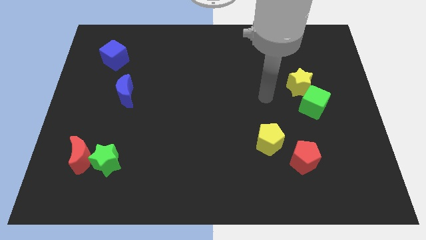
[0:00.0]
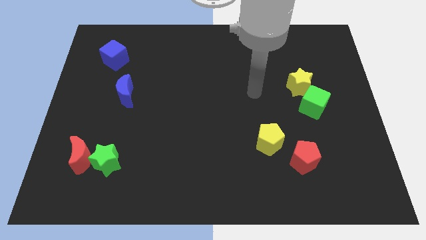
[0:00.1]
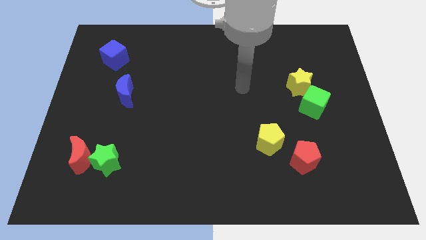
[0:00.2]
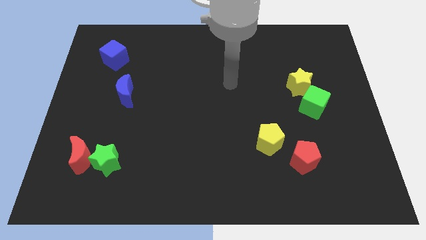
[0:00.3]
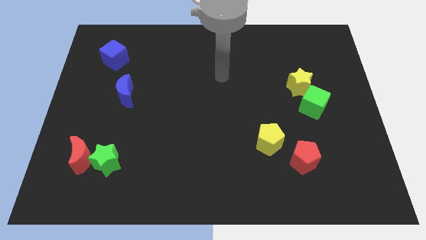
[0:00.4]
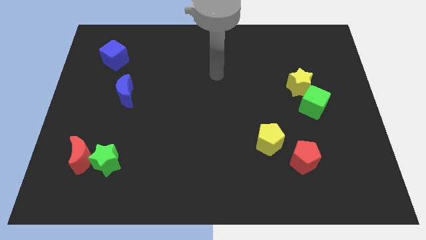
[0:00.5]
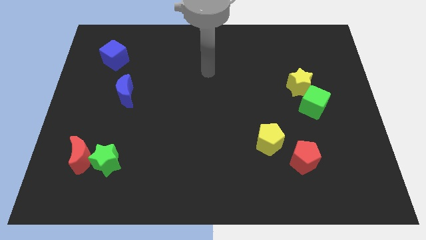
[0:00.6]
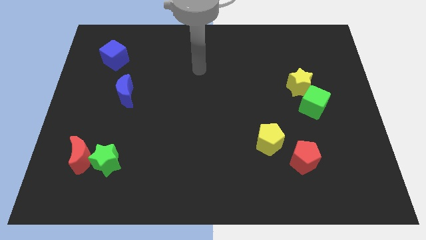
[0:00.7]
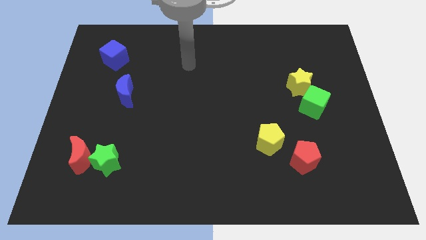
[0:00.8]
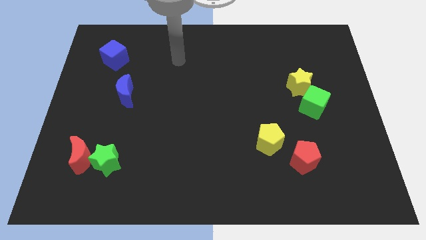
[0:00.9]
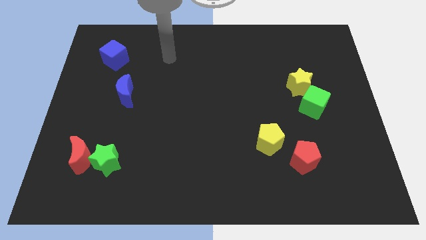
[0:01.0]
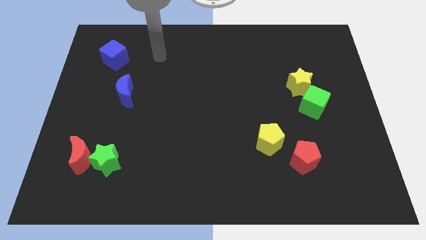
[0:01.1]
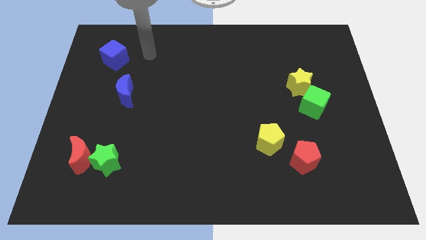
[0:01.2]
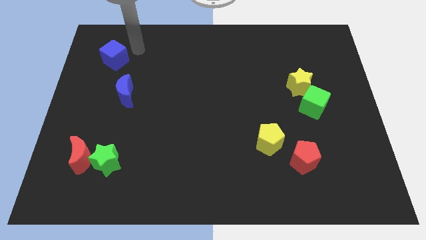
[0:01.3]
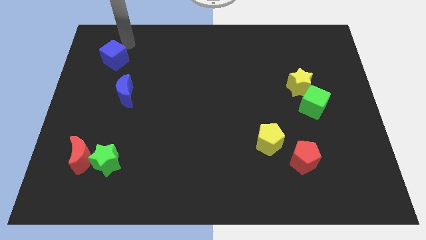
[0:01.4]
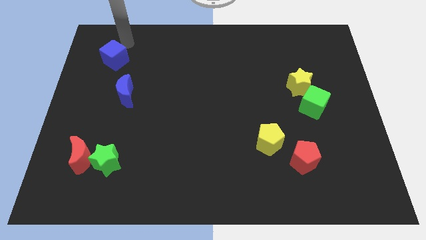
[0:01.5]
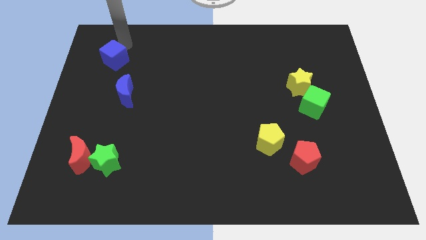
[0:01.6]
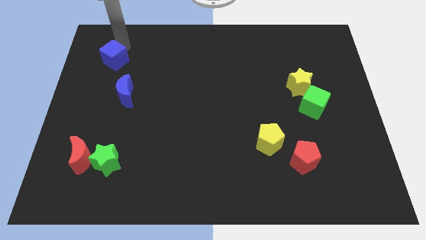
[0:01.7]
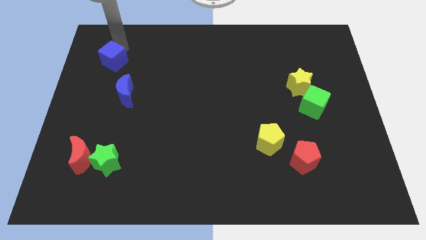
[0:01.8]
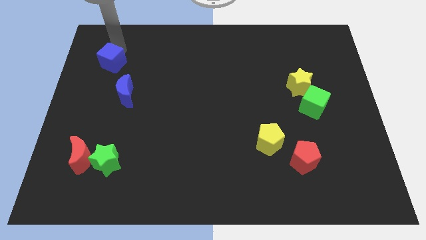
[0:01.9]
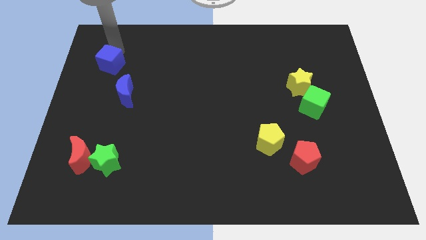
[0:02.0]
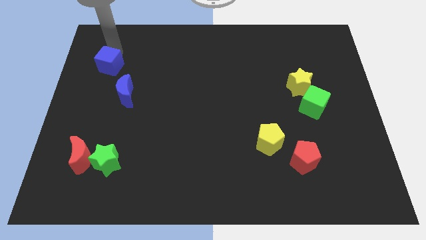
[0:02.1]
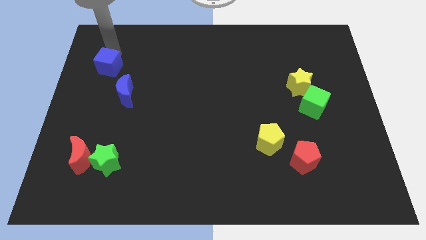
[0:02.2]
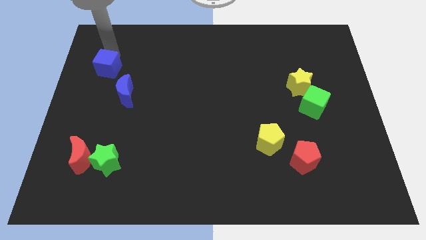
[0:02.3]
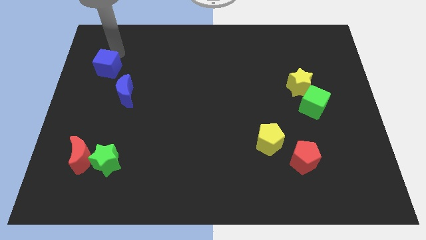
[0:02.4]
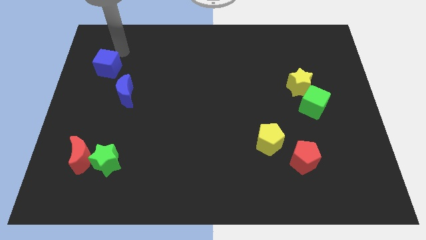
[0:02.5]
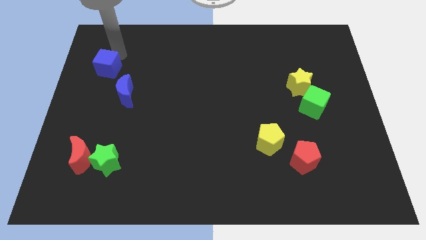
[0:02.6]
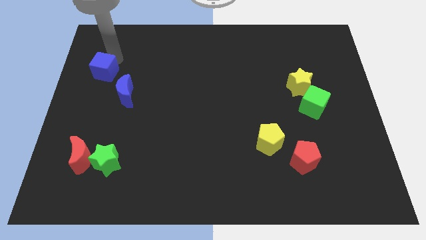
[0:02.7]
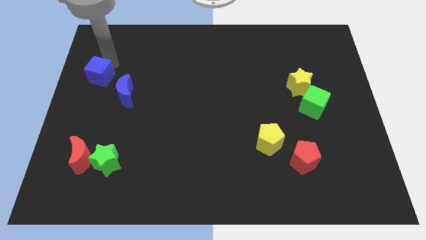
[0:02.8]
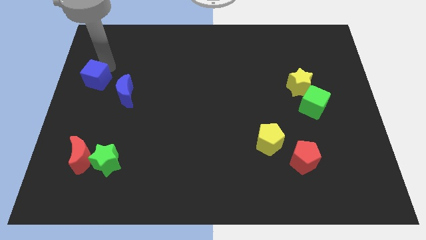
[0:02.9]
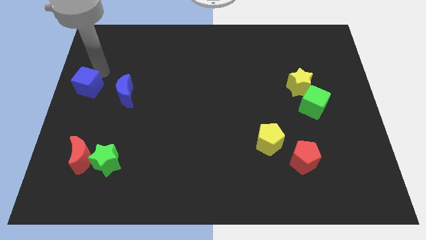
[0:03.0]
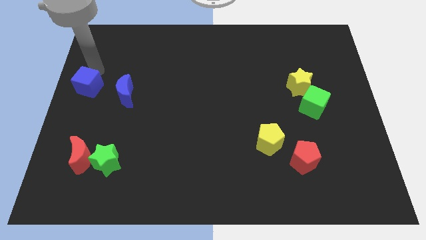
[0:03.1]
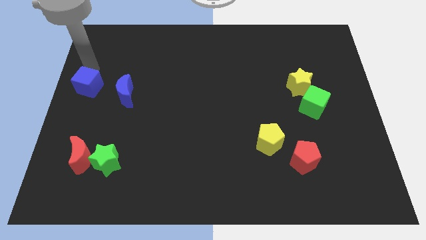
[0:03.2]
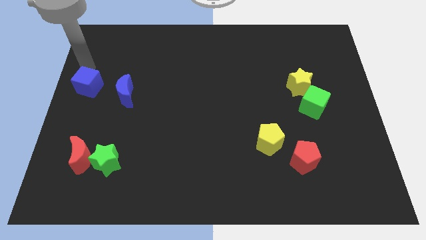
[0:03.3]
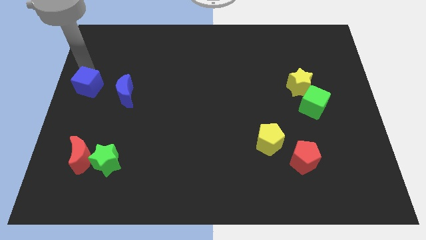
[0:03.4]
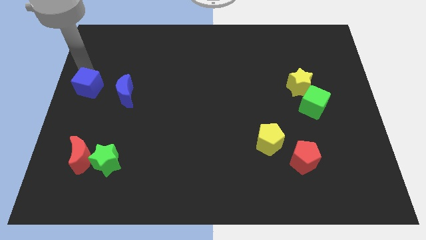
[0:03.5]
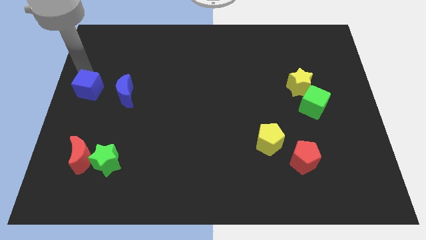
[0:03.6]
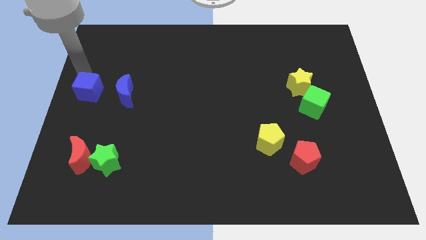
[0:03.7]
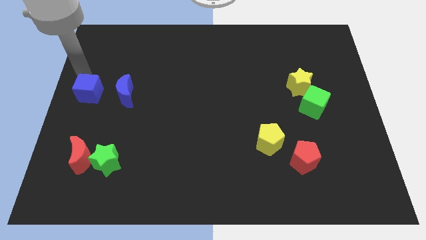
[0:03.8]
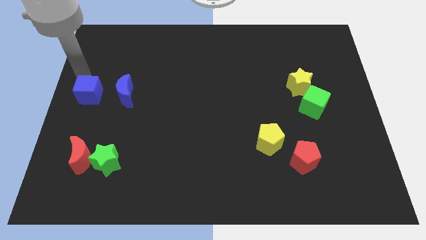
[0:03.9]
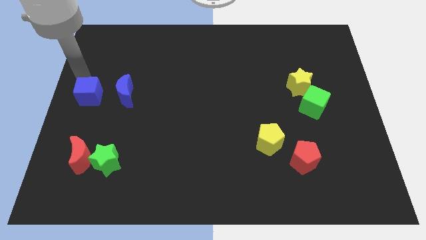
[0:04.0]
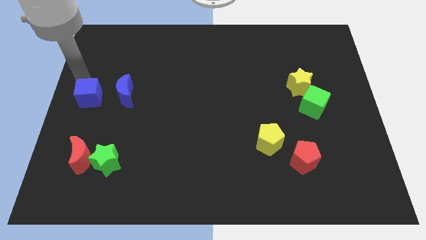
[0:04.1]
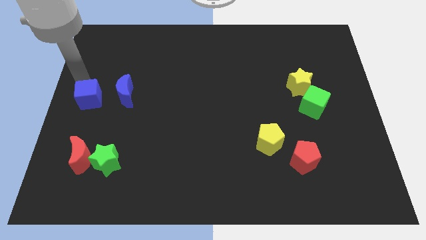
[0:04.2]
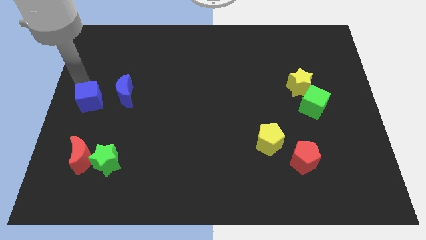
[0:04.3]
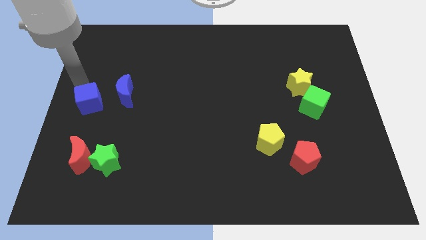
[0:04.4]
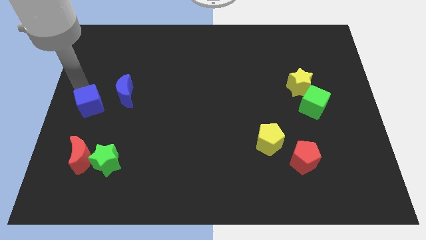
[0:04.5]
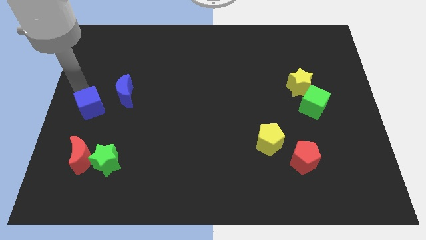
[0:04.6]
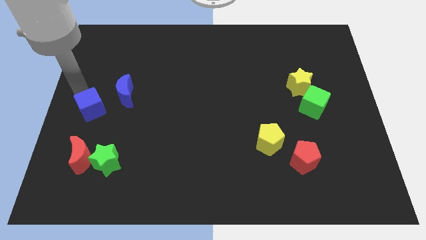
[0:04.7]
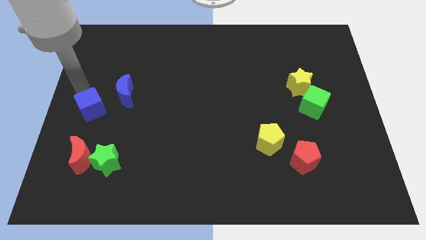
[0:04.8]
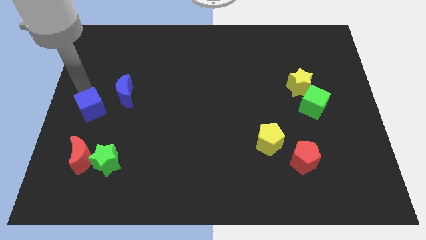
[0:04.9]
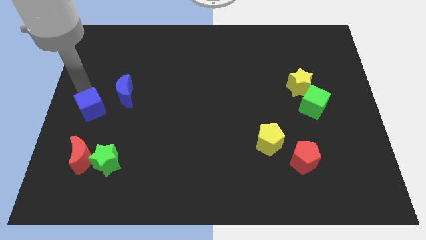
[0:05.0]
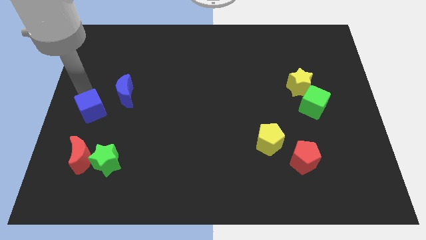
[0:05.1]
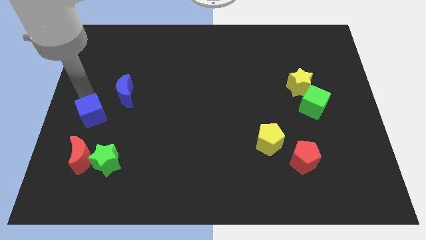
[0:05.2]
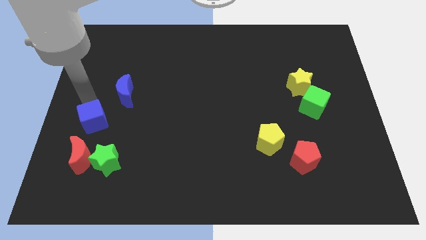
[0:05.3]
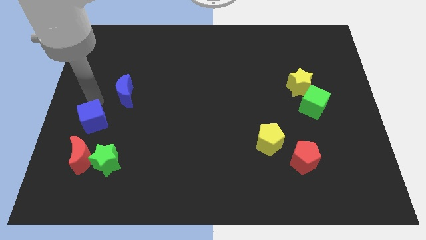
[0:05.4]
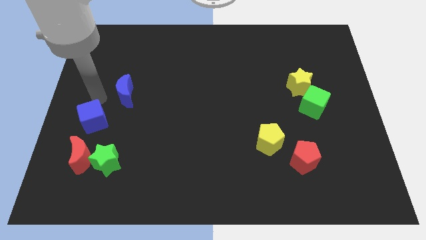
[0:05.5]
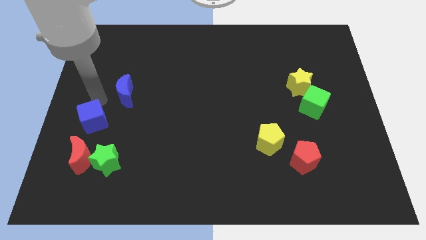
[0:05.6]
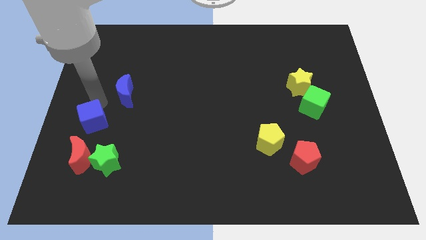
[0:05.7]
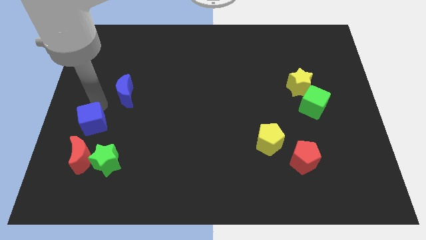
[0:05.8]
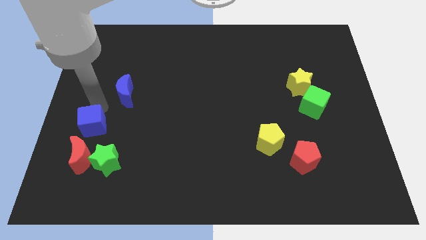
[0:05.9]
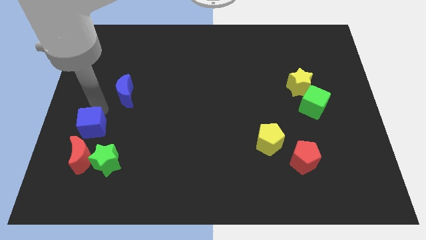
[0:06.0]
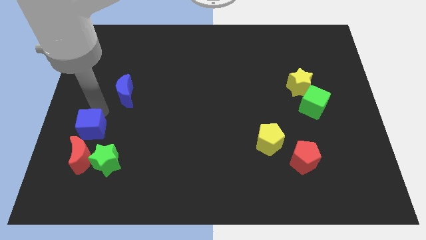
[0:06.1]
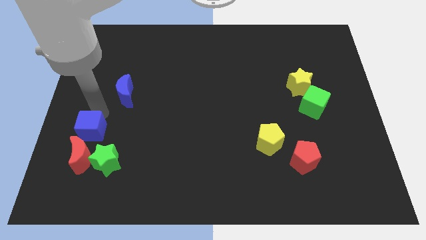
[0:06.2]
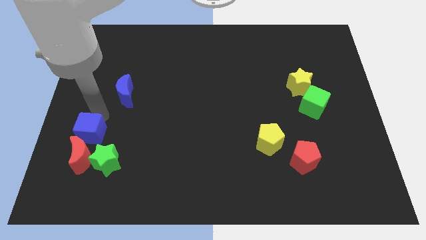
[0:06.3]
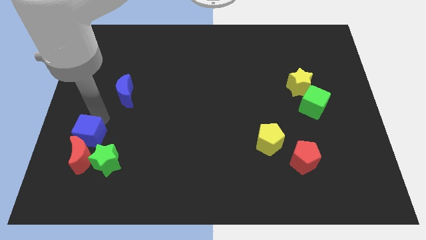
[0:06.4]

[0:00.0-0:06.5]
push the blue cube close to the red moon

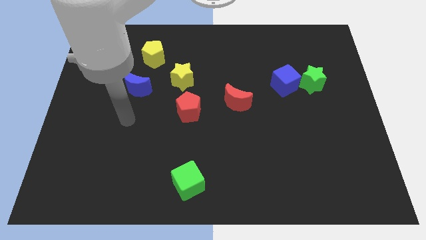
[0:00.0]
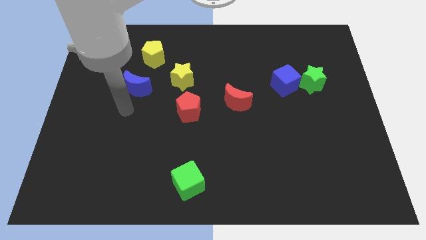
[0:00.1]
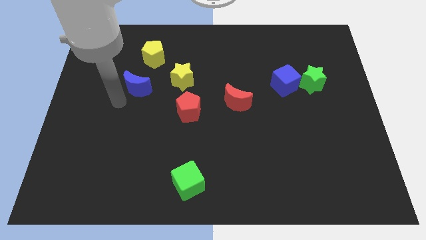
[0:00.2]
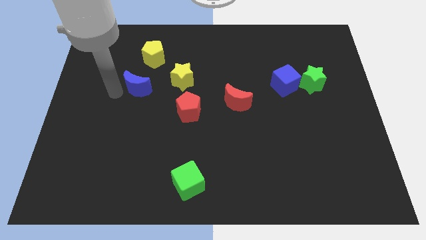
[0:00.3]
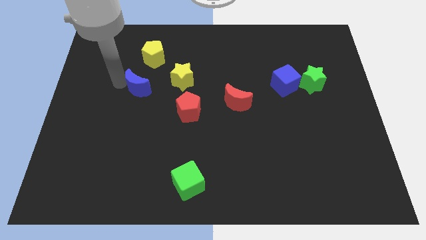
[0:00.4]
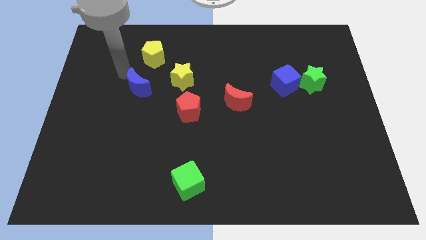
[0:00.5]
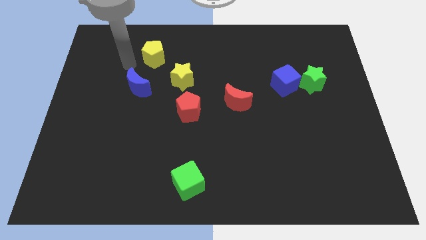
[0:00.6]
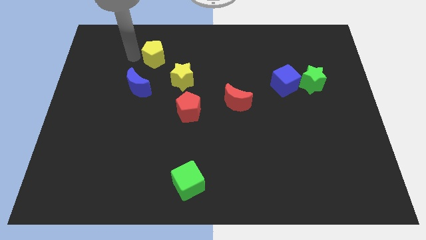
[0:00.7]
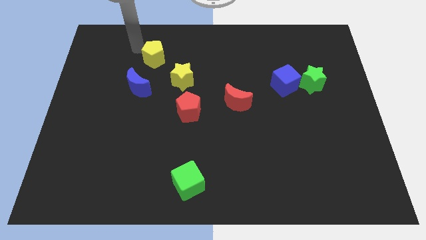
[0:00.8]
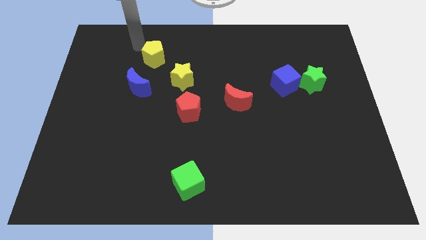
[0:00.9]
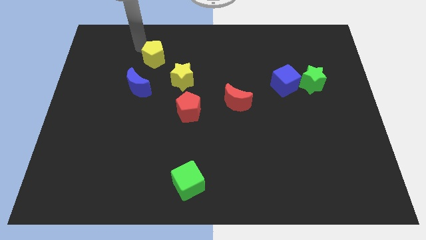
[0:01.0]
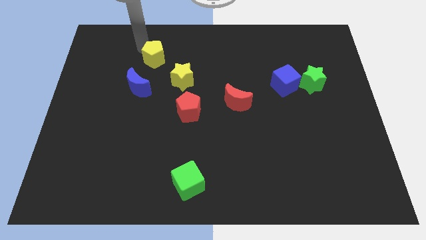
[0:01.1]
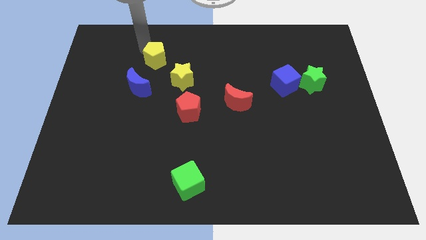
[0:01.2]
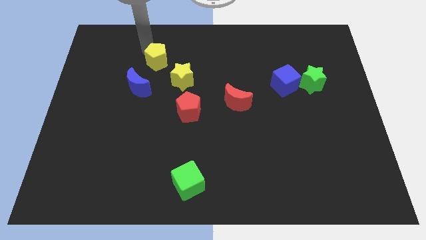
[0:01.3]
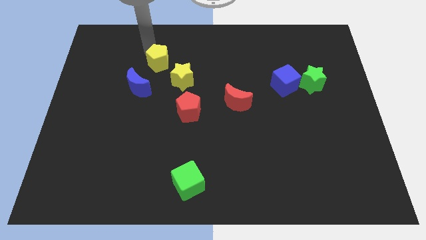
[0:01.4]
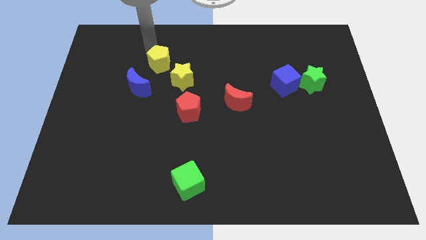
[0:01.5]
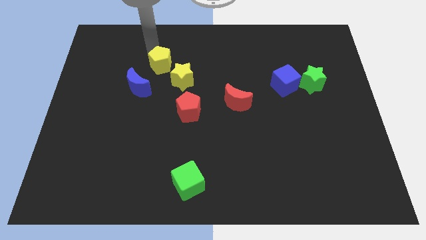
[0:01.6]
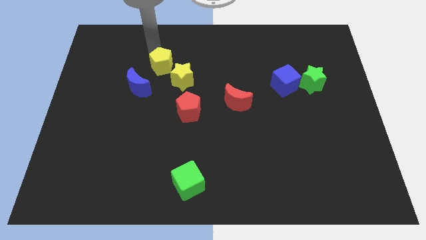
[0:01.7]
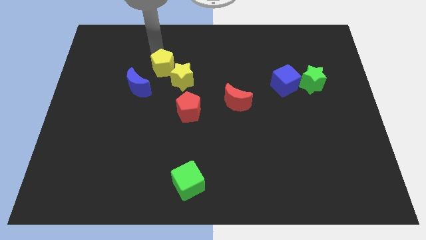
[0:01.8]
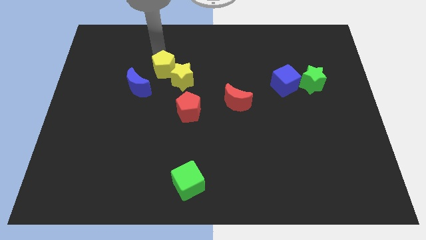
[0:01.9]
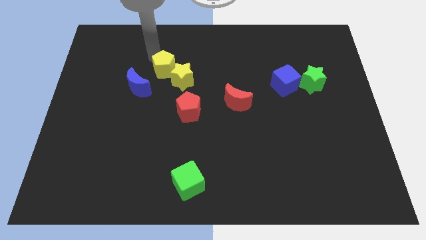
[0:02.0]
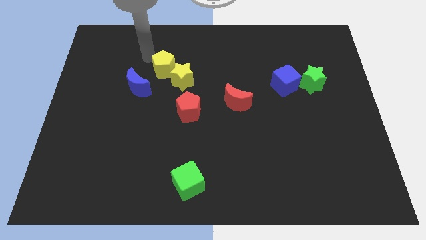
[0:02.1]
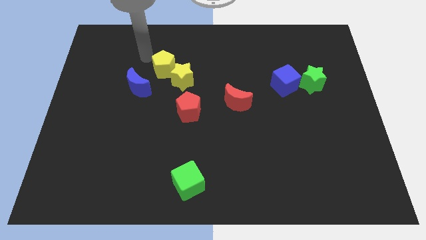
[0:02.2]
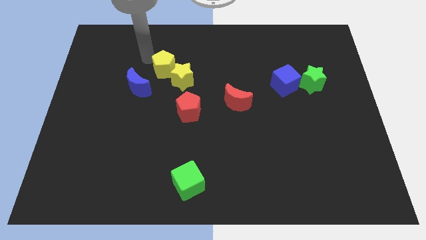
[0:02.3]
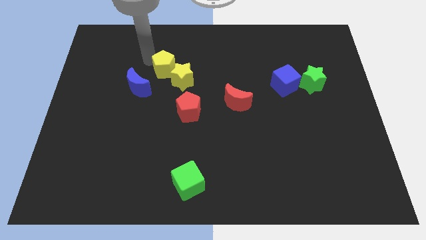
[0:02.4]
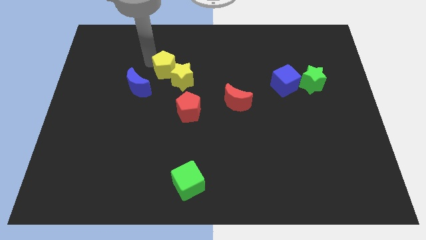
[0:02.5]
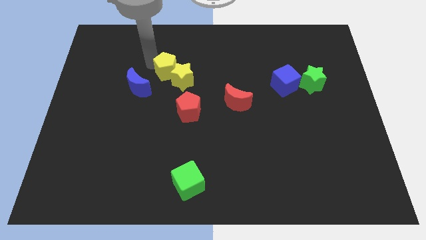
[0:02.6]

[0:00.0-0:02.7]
put the yellow pentagon close to the yellow star
